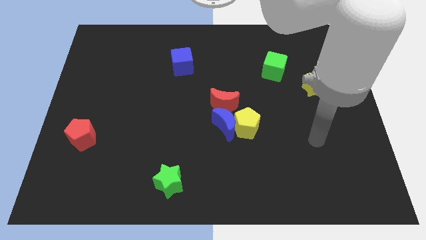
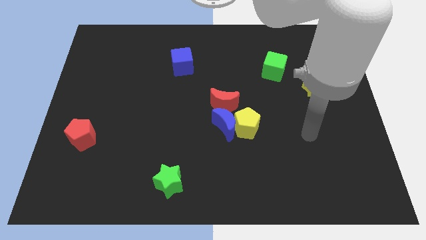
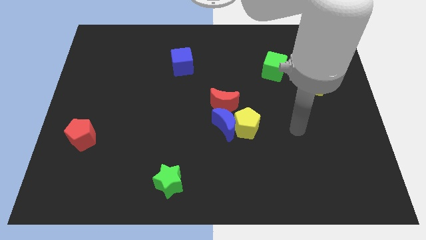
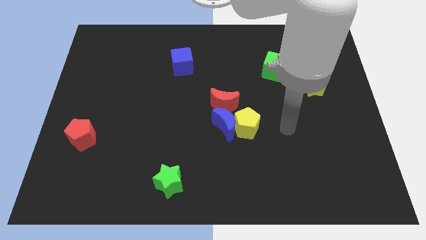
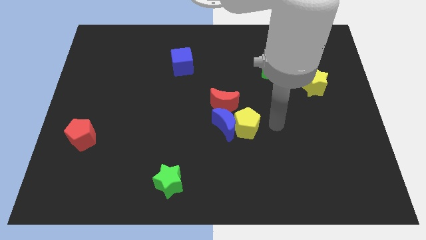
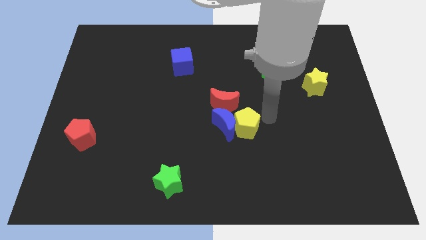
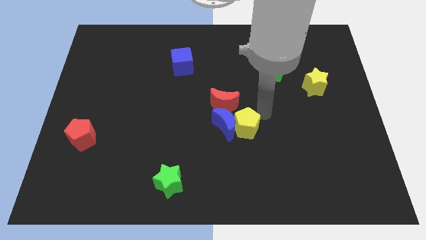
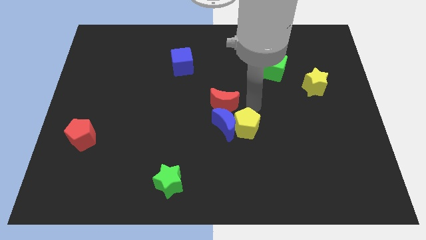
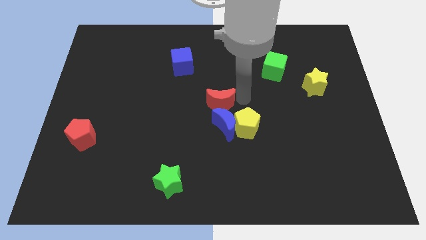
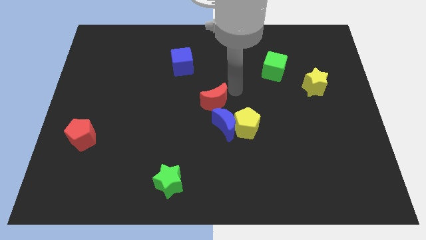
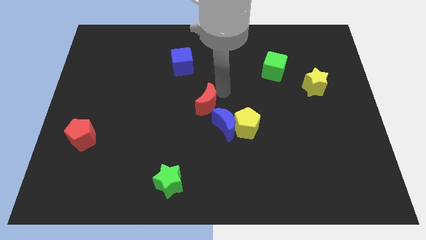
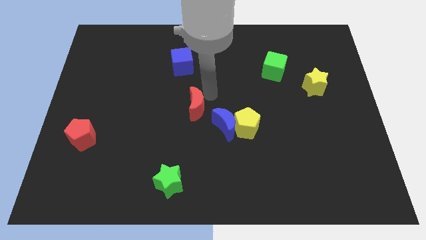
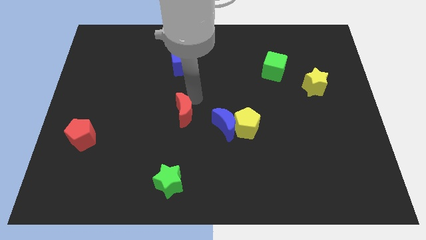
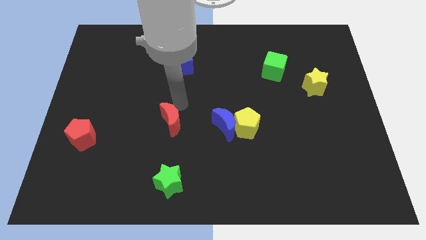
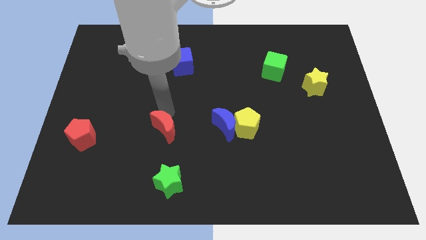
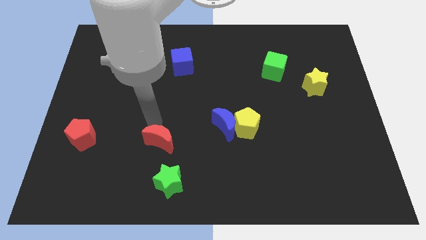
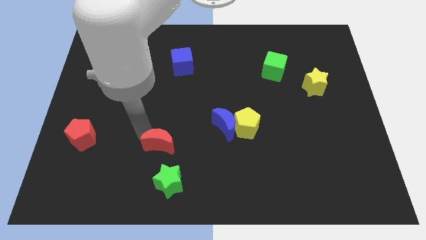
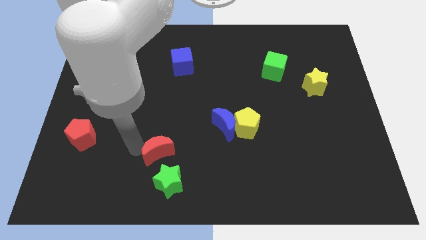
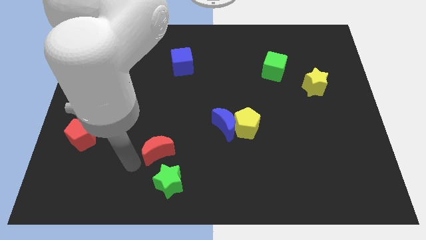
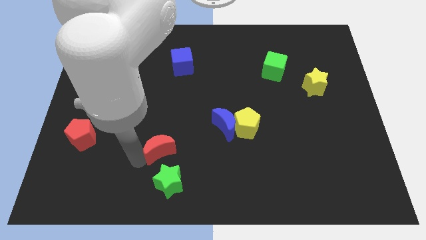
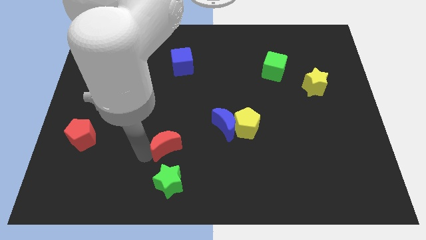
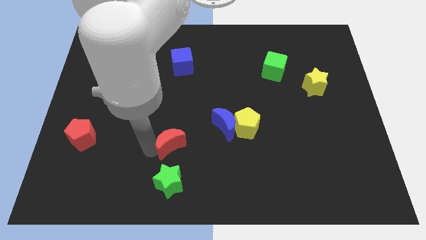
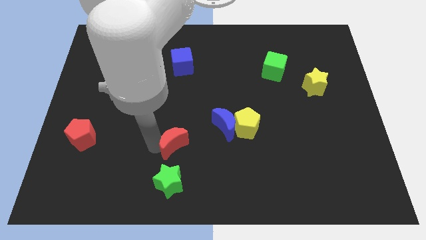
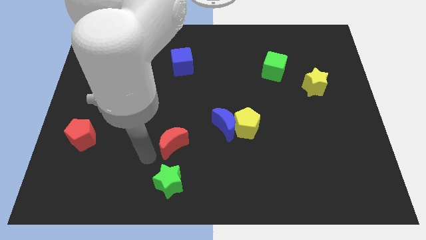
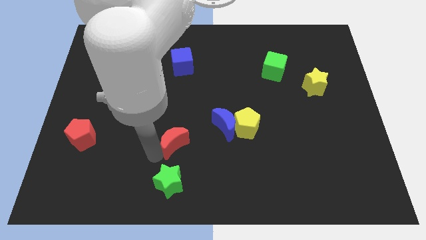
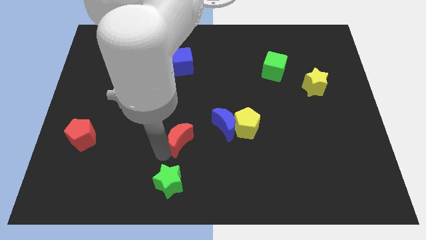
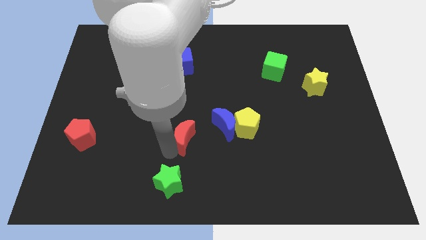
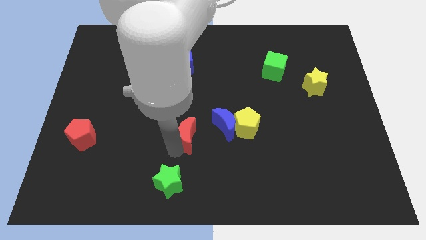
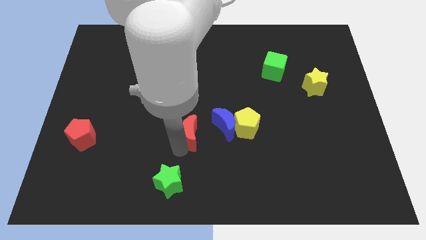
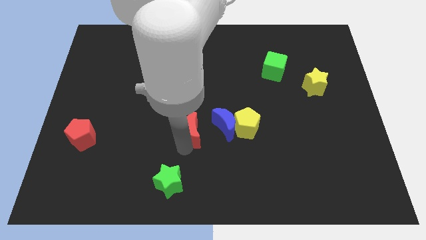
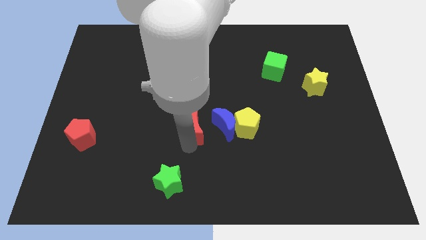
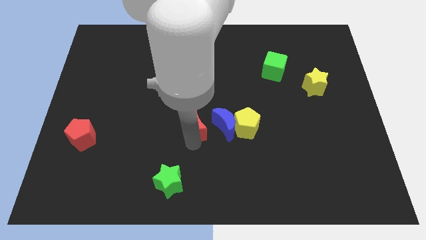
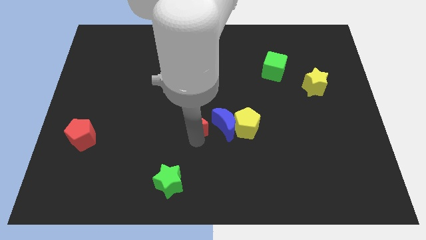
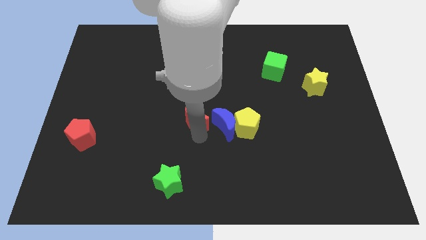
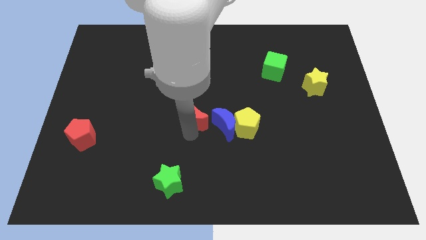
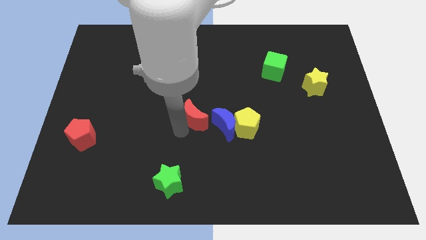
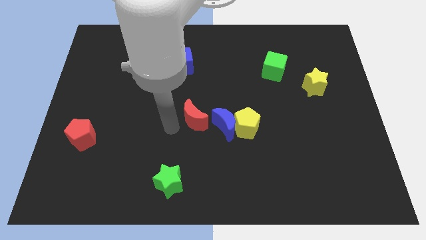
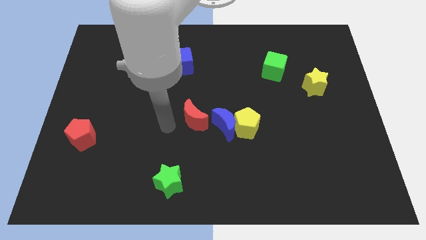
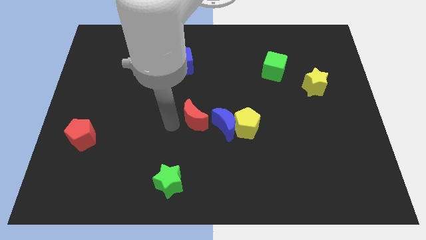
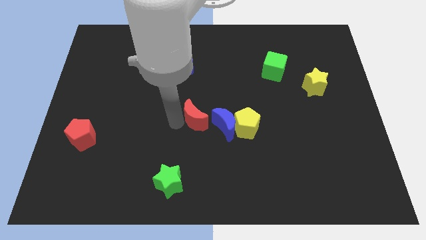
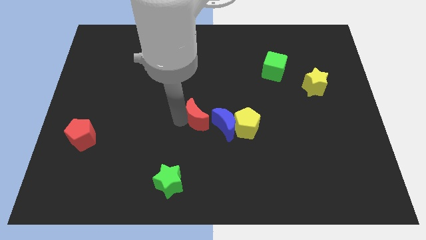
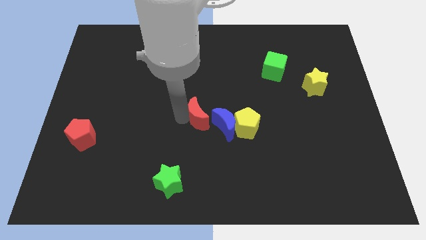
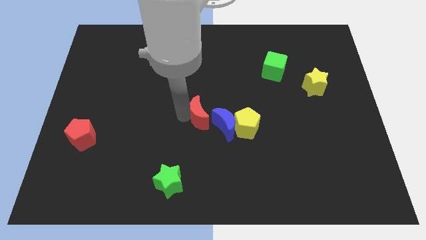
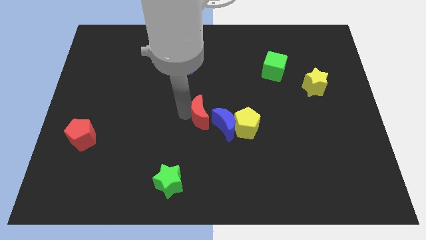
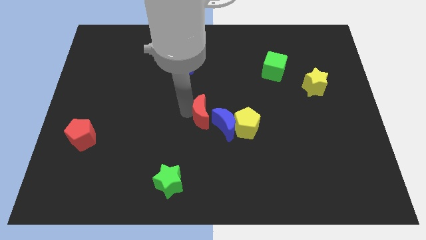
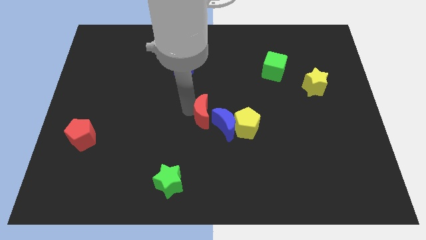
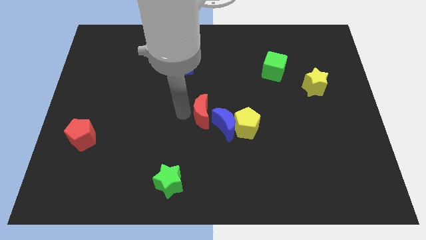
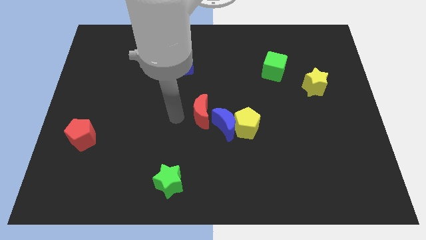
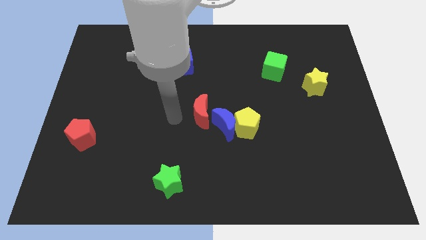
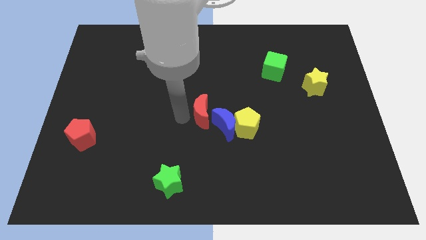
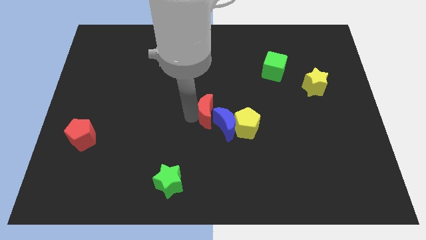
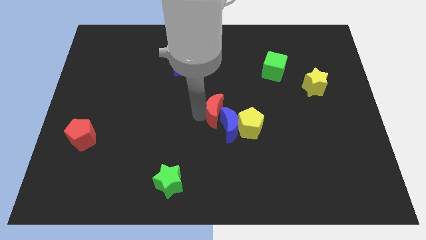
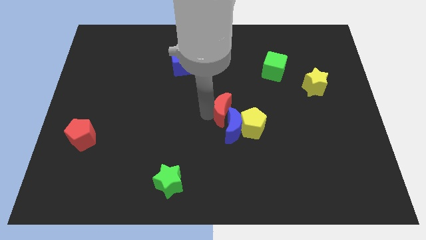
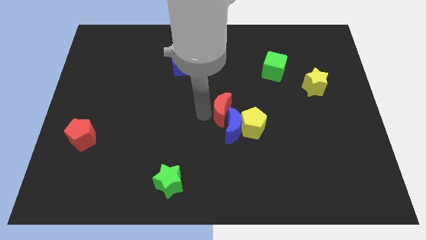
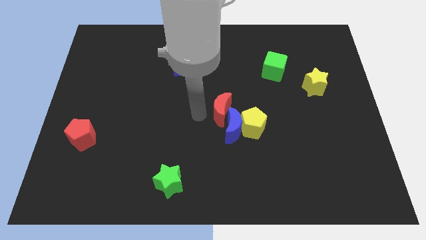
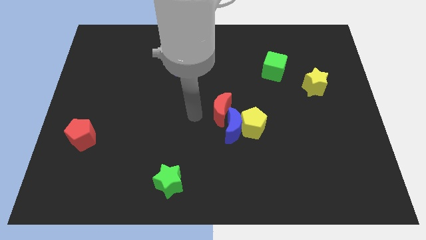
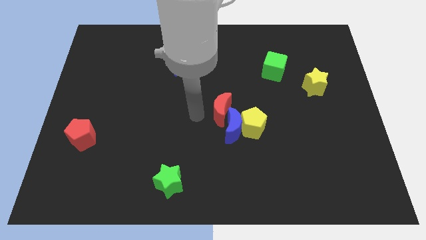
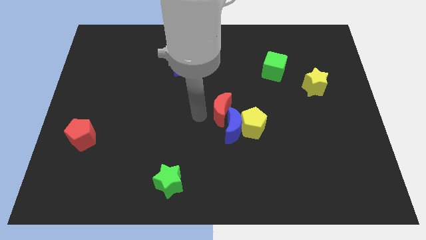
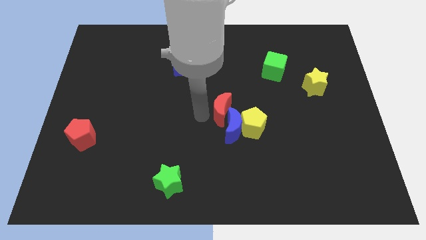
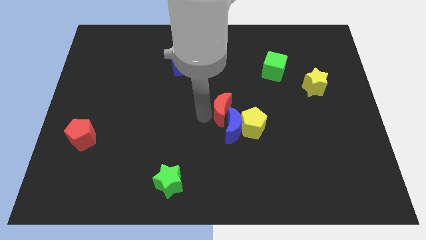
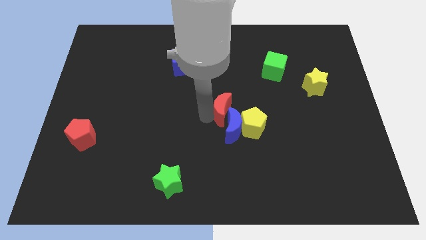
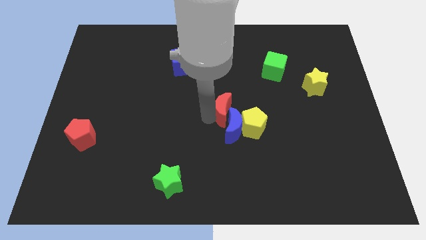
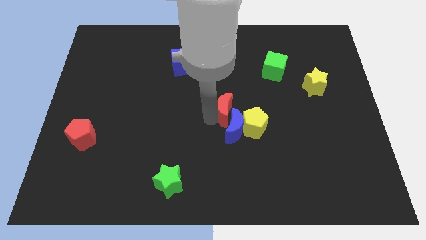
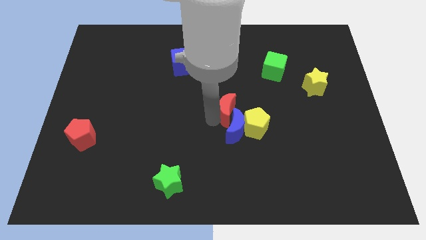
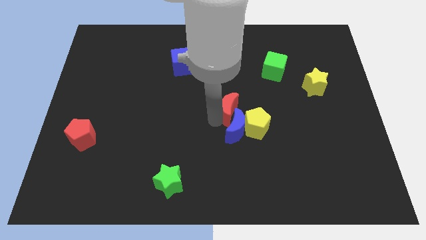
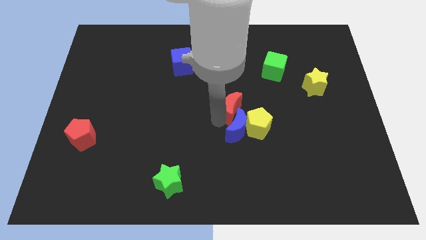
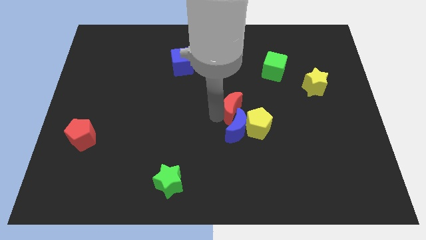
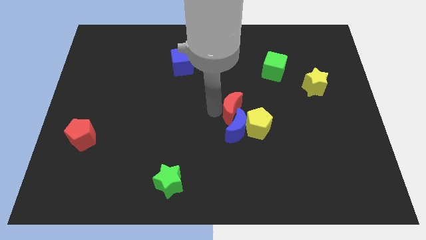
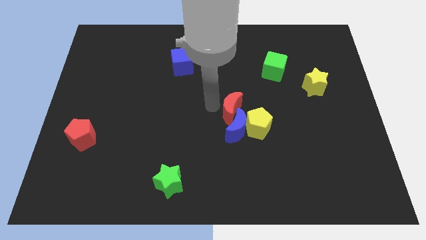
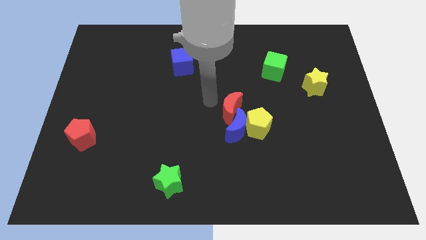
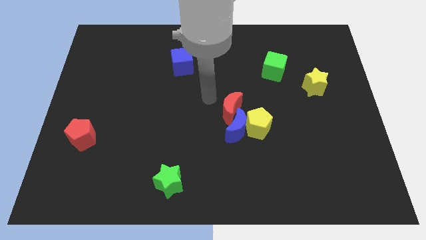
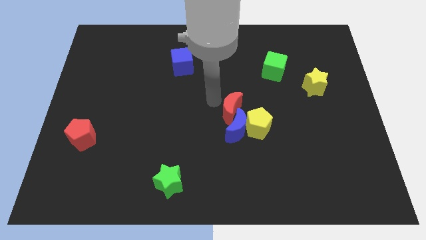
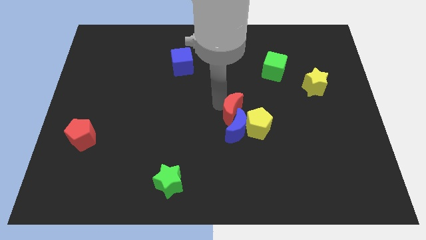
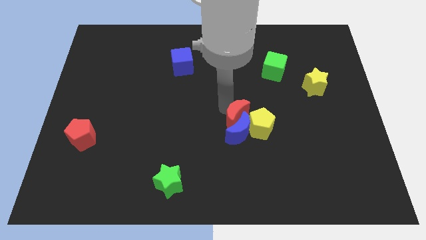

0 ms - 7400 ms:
move the red moon towards the yellow pentagon
